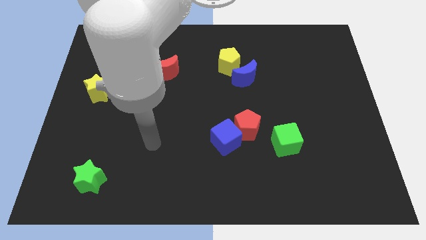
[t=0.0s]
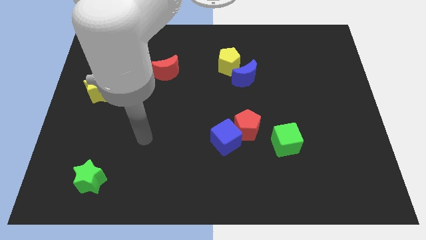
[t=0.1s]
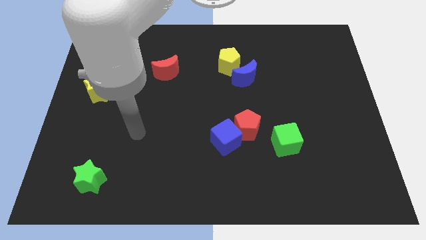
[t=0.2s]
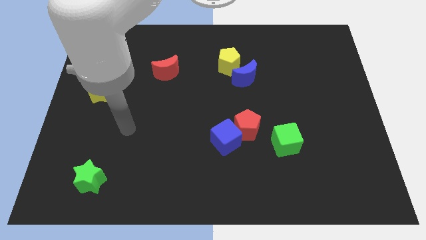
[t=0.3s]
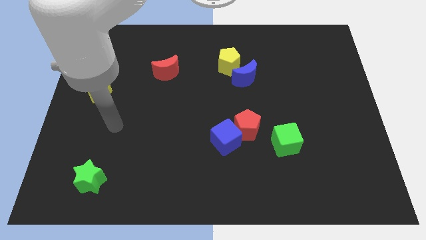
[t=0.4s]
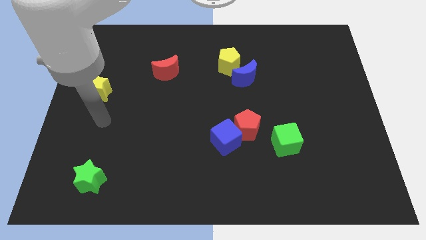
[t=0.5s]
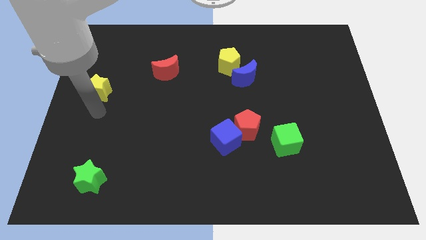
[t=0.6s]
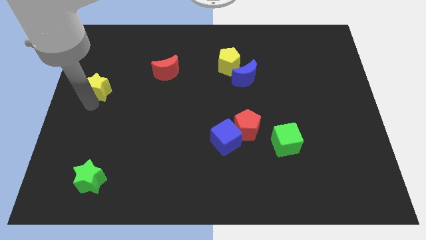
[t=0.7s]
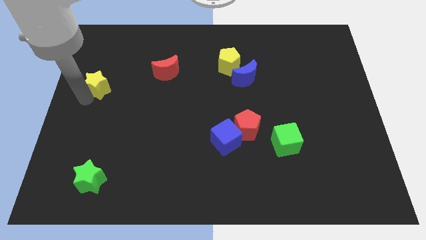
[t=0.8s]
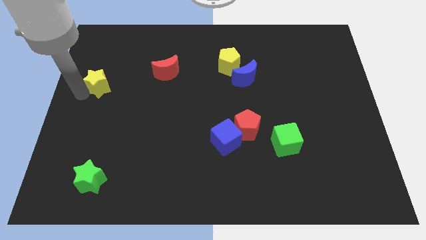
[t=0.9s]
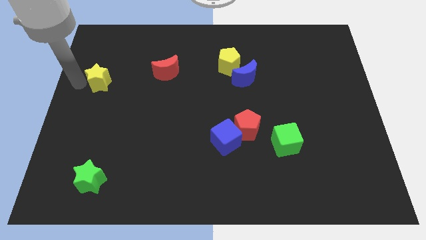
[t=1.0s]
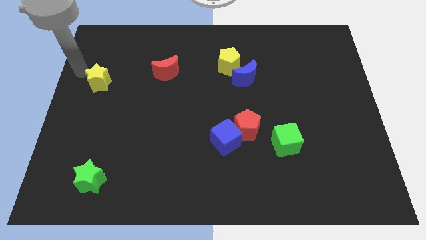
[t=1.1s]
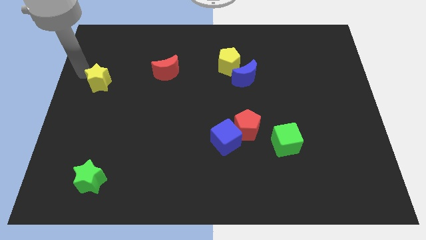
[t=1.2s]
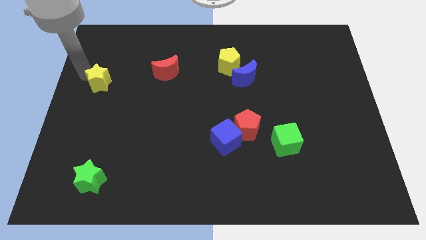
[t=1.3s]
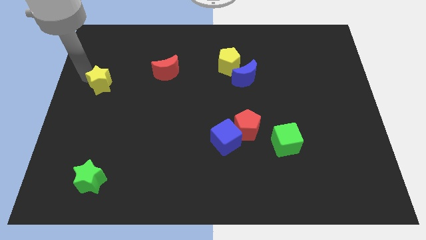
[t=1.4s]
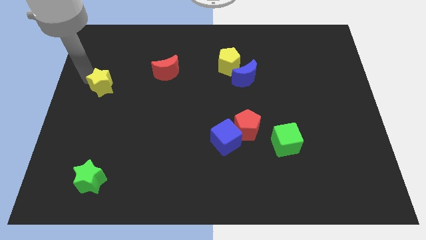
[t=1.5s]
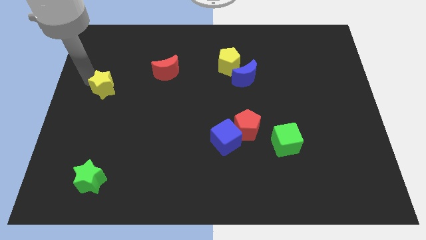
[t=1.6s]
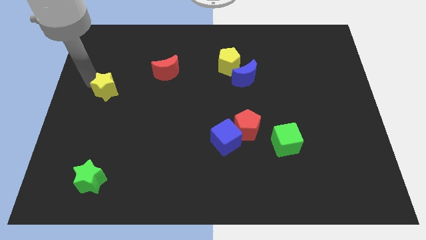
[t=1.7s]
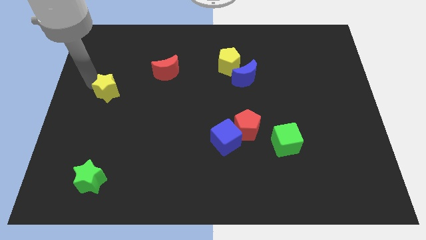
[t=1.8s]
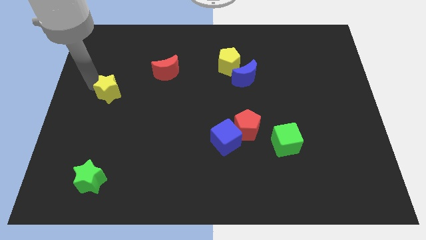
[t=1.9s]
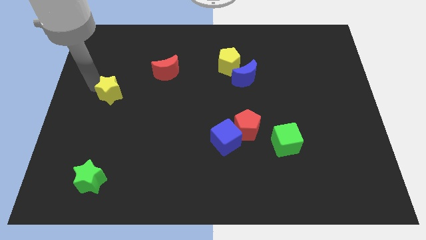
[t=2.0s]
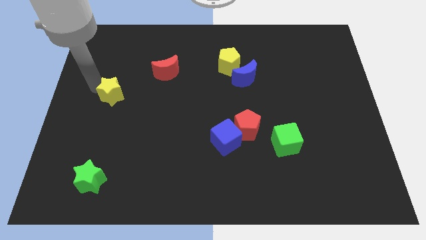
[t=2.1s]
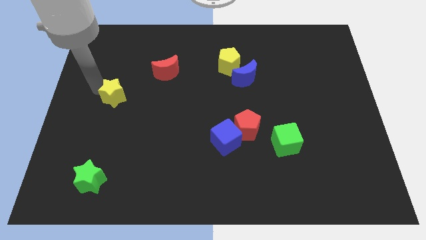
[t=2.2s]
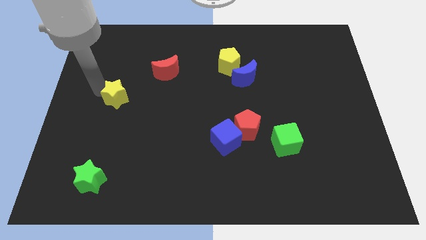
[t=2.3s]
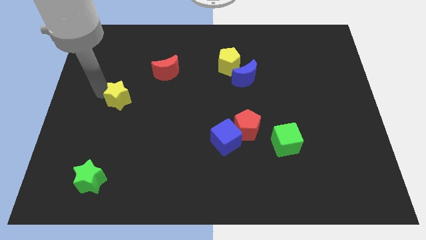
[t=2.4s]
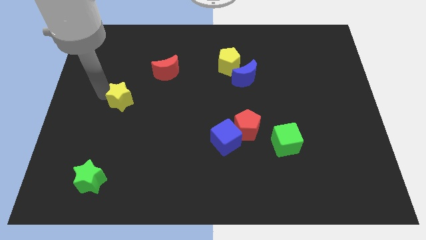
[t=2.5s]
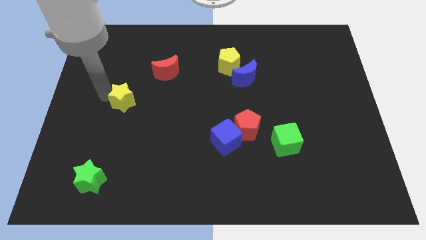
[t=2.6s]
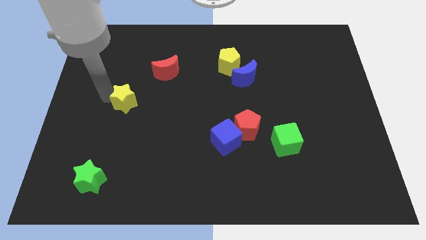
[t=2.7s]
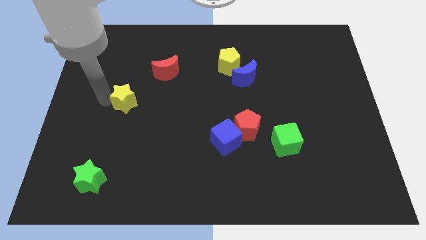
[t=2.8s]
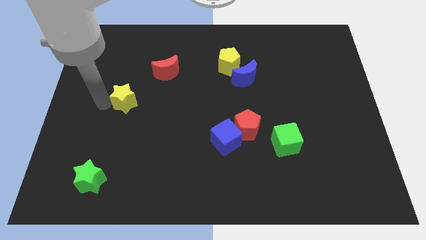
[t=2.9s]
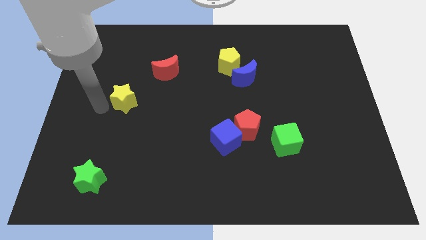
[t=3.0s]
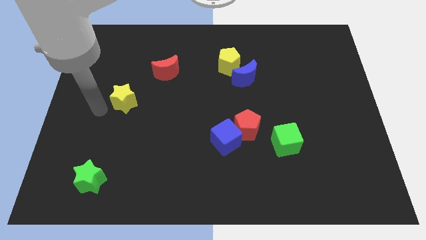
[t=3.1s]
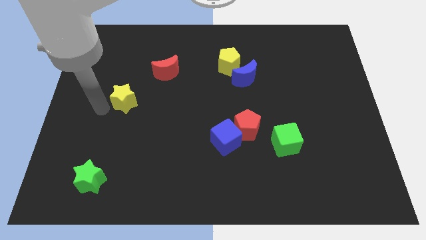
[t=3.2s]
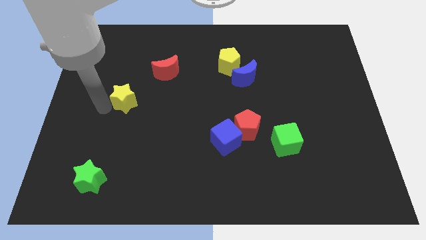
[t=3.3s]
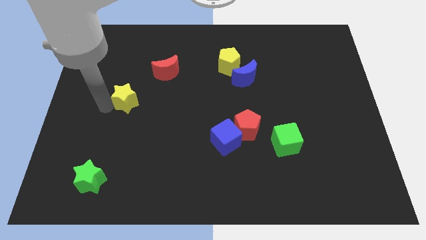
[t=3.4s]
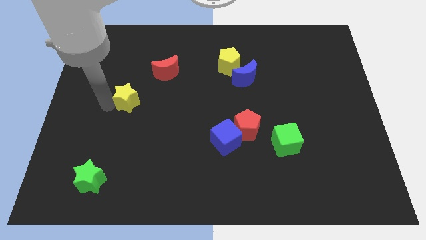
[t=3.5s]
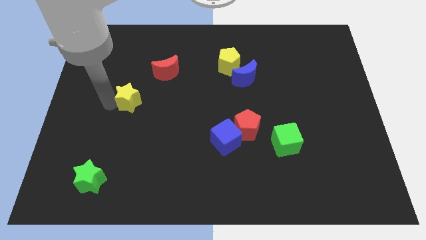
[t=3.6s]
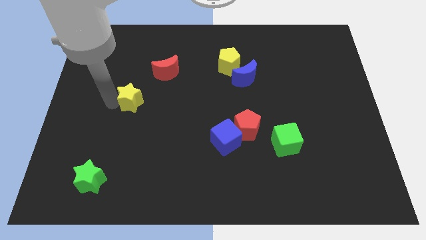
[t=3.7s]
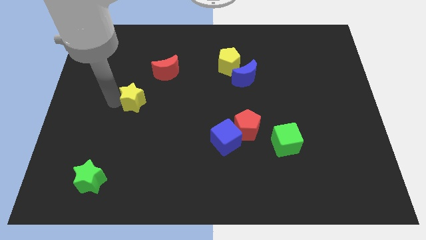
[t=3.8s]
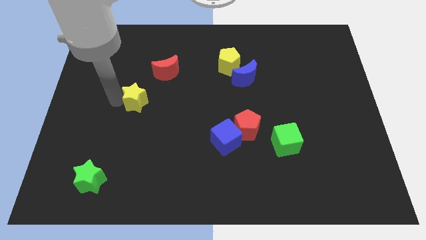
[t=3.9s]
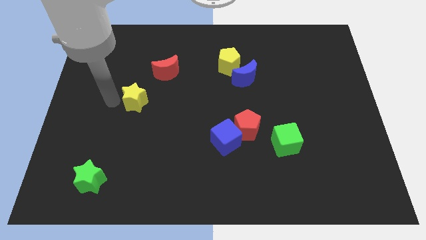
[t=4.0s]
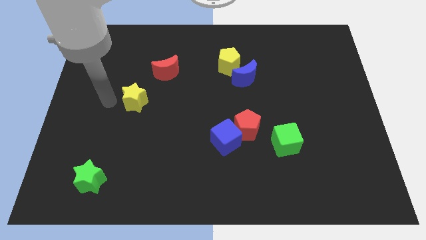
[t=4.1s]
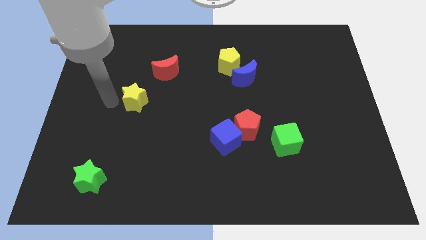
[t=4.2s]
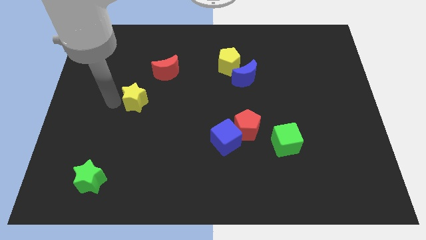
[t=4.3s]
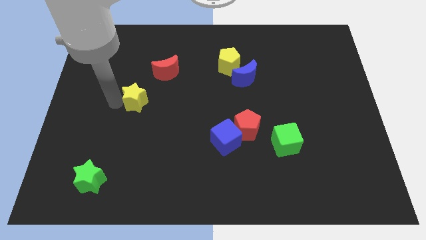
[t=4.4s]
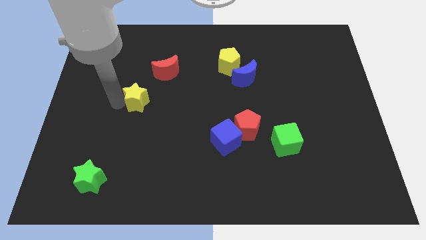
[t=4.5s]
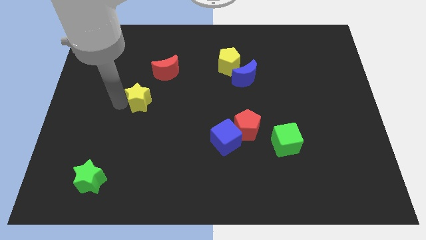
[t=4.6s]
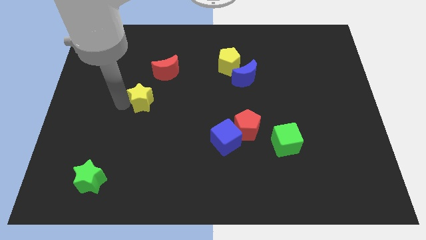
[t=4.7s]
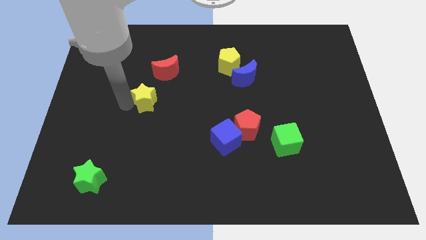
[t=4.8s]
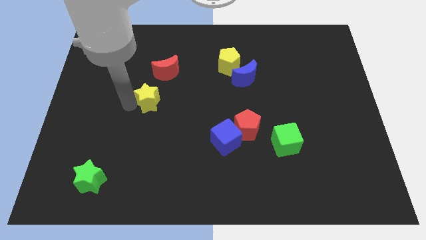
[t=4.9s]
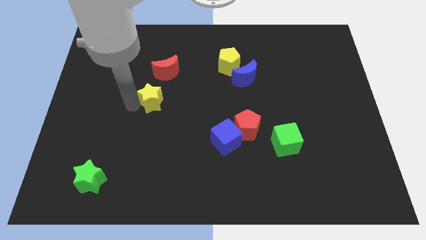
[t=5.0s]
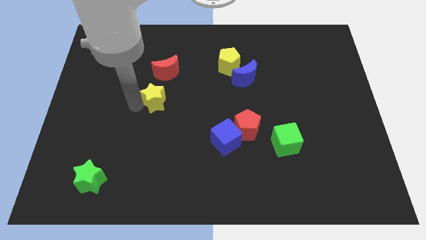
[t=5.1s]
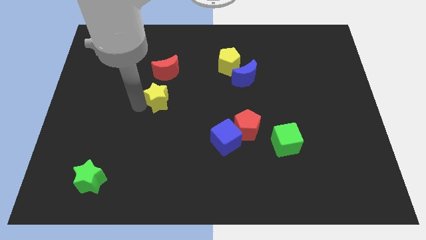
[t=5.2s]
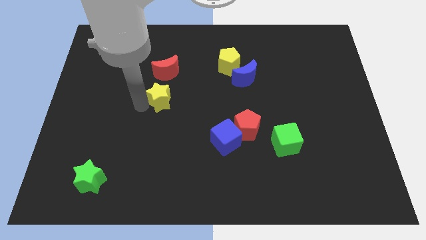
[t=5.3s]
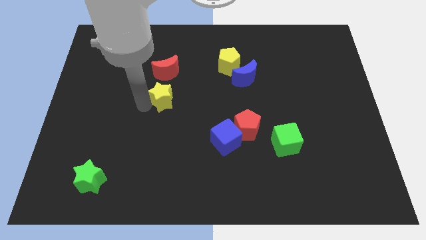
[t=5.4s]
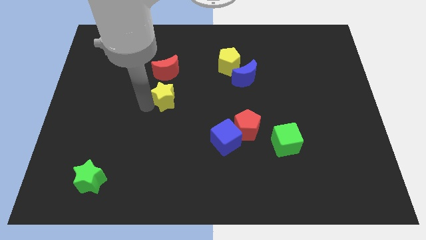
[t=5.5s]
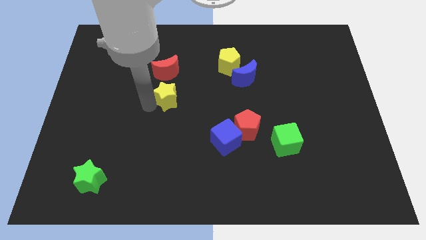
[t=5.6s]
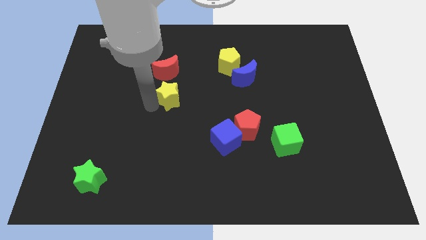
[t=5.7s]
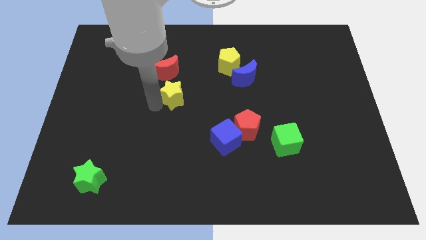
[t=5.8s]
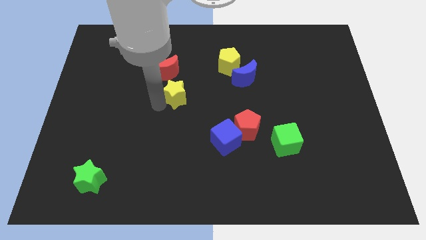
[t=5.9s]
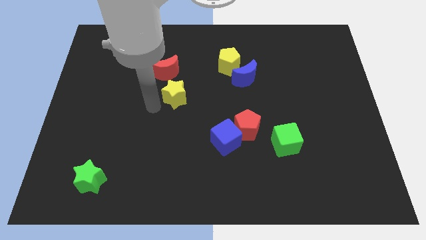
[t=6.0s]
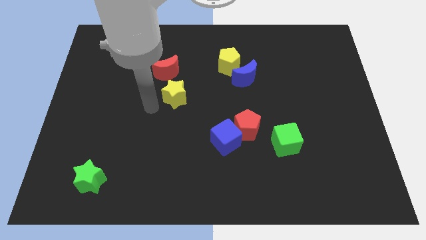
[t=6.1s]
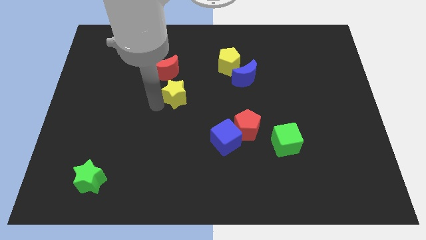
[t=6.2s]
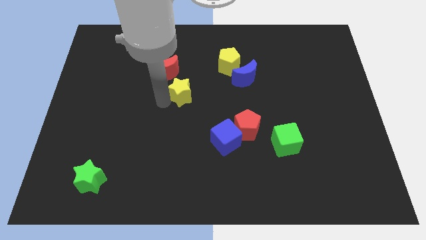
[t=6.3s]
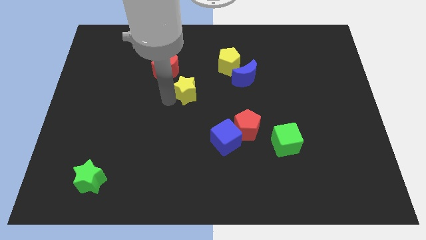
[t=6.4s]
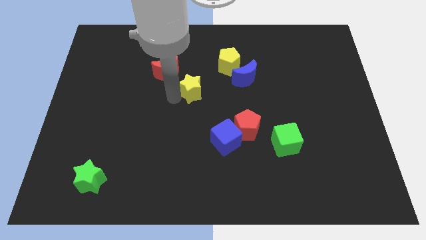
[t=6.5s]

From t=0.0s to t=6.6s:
push the yellow star to the bottom left side of the yellow pentagon

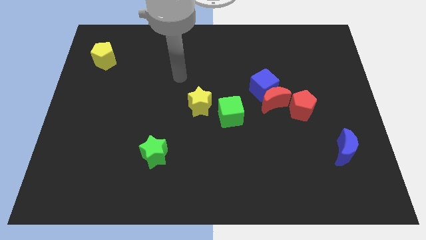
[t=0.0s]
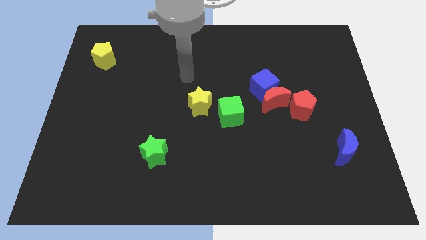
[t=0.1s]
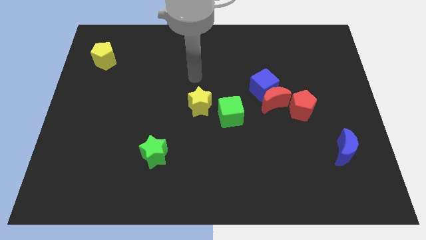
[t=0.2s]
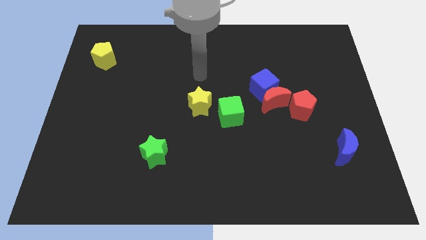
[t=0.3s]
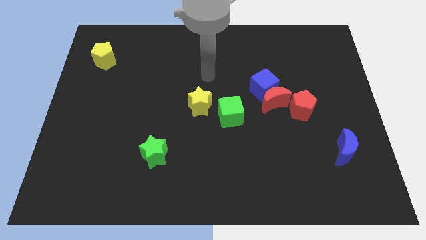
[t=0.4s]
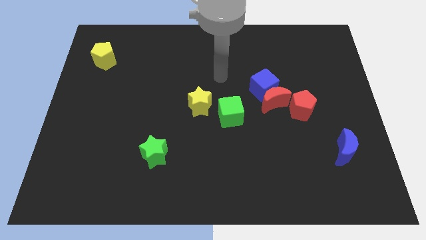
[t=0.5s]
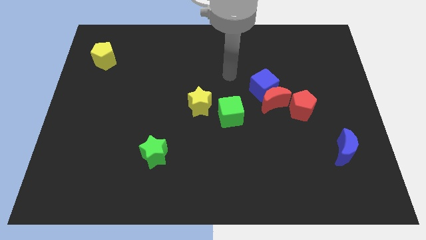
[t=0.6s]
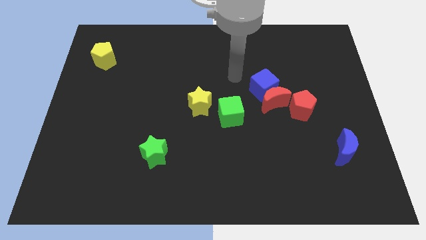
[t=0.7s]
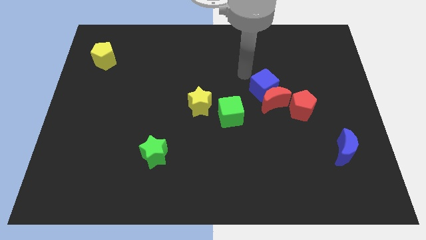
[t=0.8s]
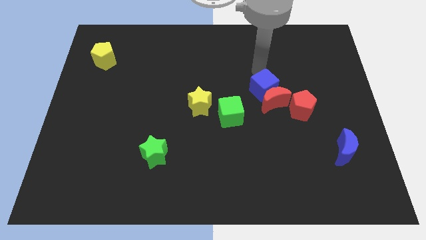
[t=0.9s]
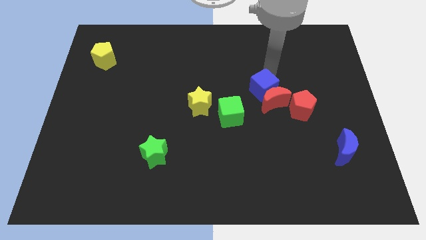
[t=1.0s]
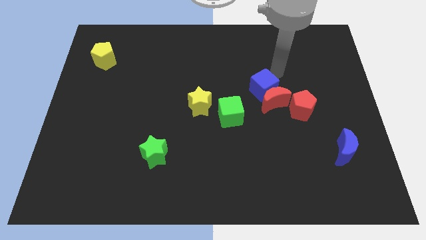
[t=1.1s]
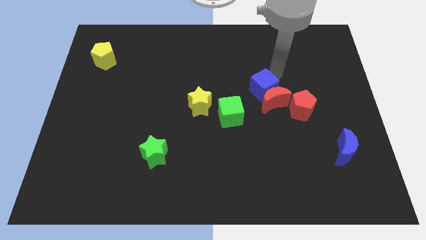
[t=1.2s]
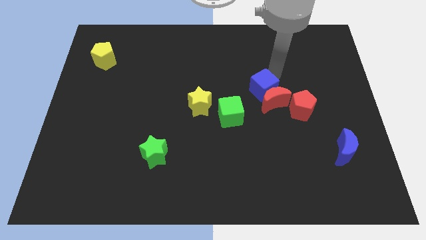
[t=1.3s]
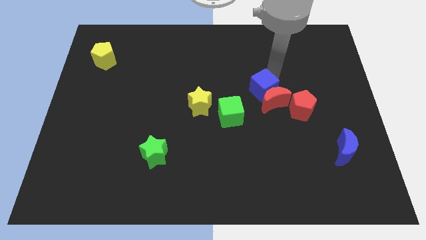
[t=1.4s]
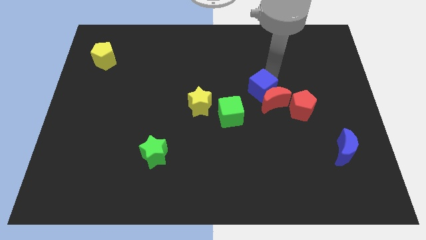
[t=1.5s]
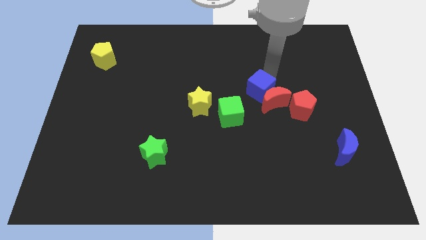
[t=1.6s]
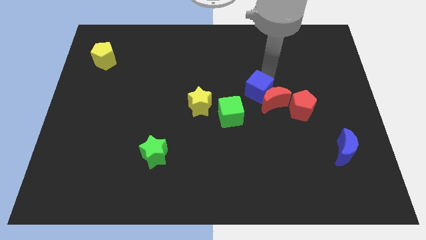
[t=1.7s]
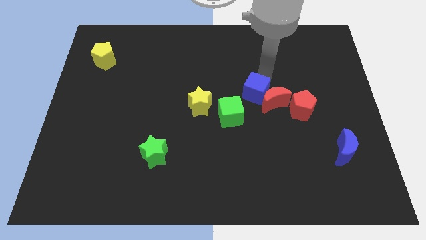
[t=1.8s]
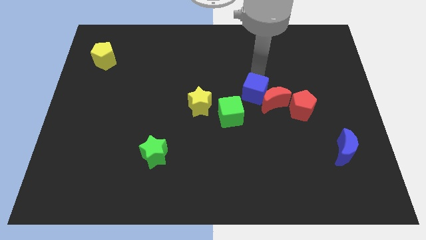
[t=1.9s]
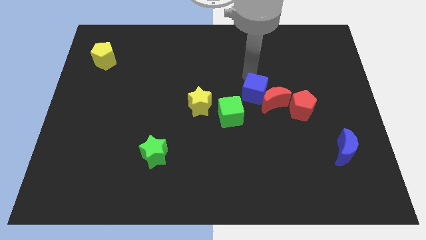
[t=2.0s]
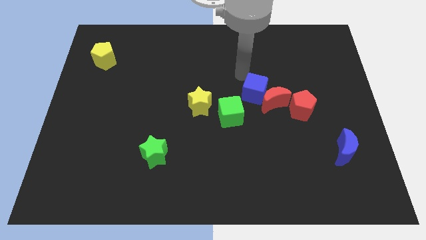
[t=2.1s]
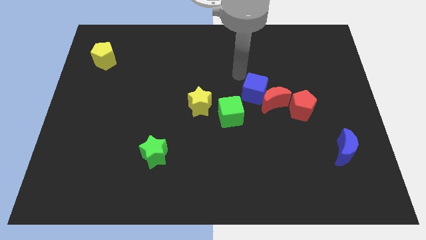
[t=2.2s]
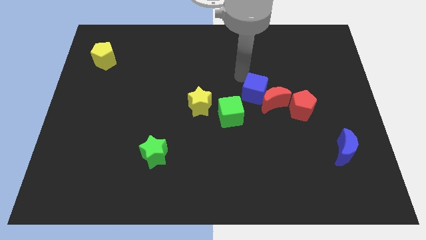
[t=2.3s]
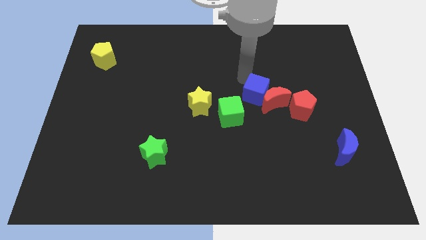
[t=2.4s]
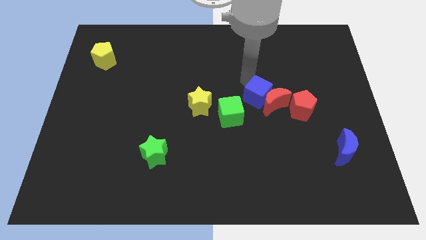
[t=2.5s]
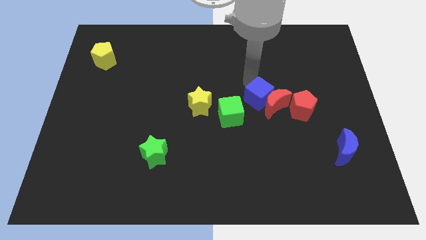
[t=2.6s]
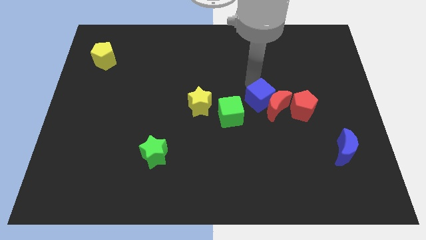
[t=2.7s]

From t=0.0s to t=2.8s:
move the blue cube to the right of the green cube
